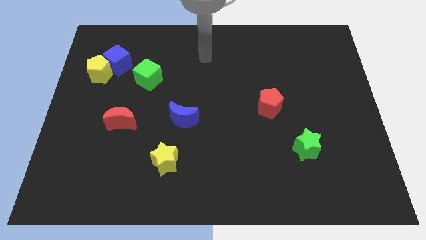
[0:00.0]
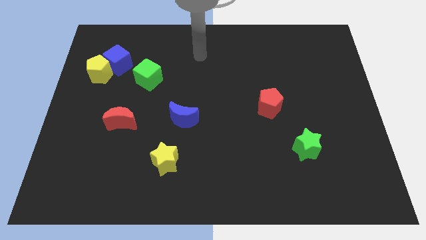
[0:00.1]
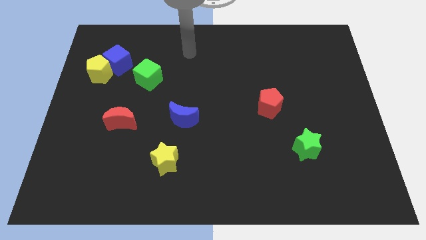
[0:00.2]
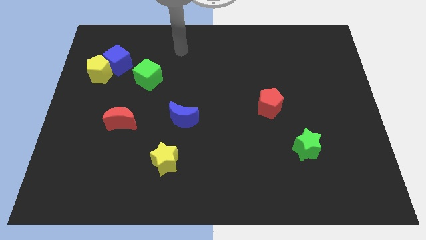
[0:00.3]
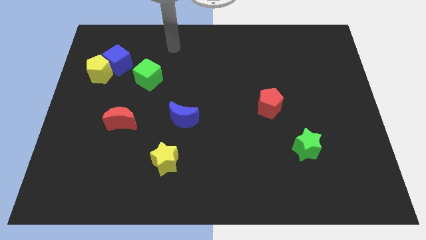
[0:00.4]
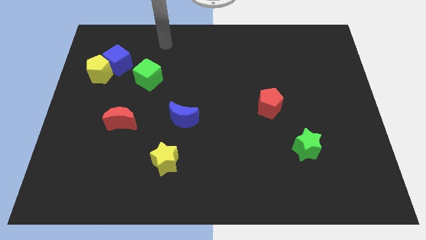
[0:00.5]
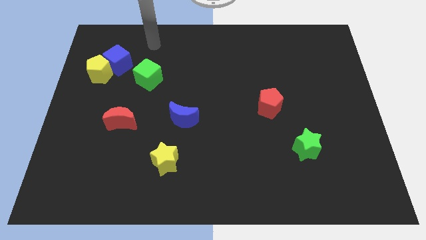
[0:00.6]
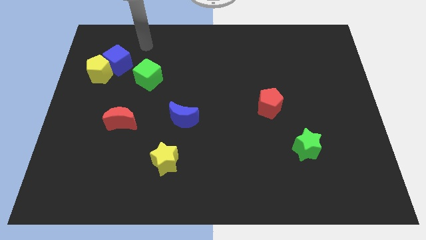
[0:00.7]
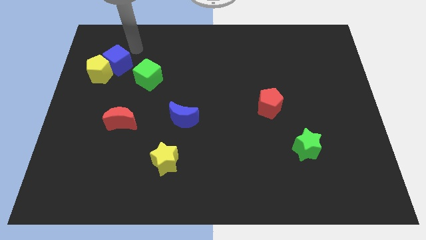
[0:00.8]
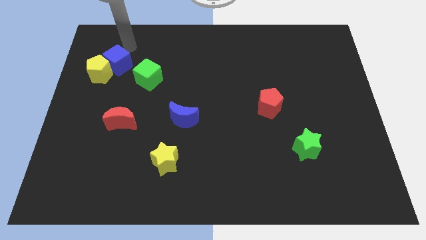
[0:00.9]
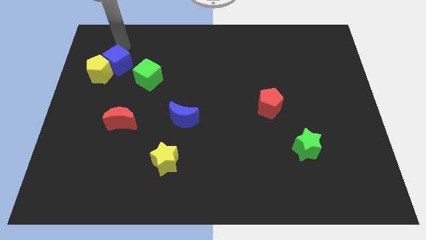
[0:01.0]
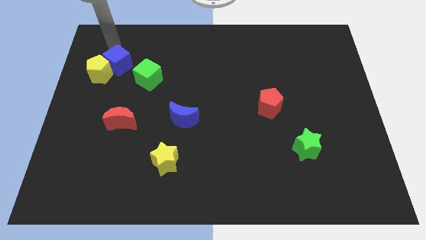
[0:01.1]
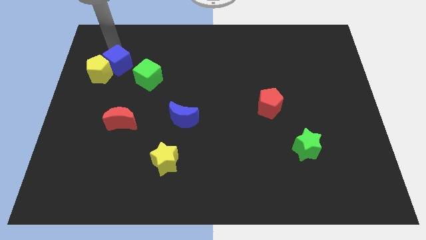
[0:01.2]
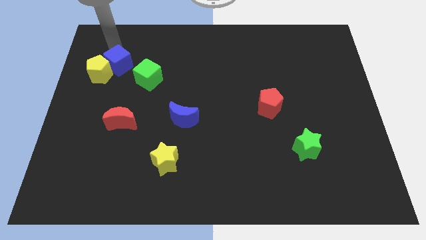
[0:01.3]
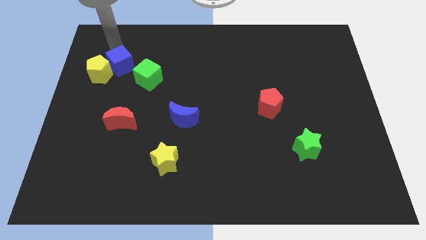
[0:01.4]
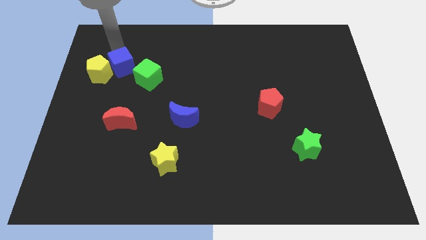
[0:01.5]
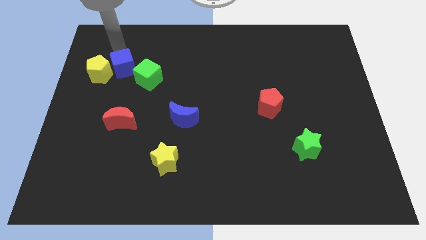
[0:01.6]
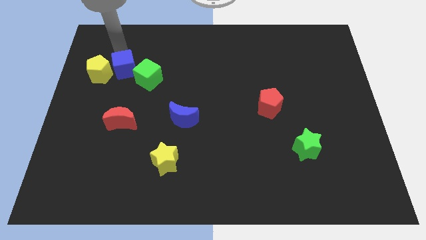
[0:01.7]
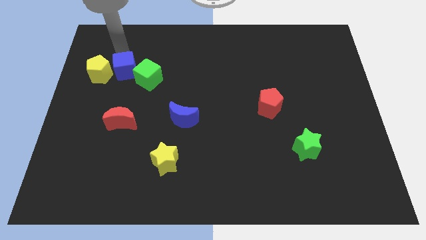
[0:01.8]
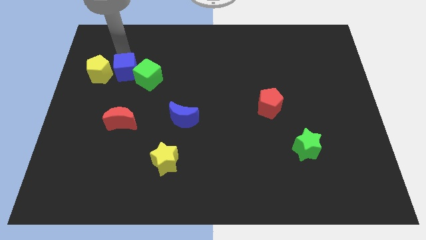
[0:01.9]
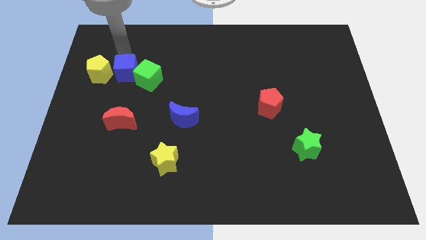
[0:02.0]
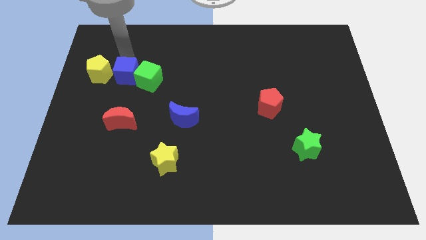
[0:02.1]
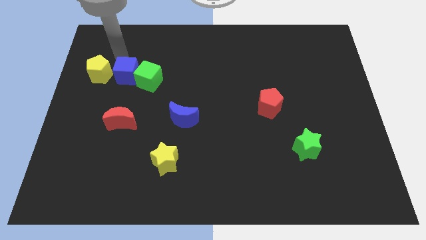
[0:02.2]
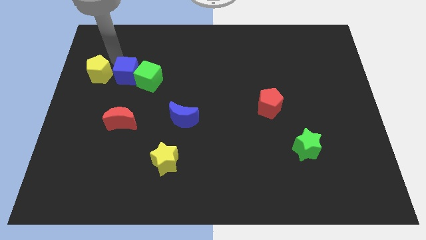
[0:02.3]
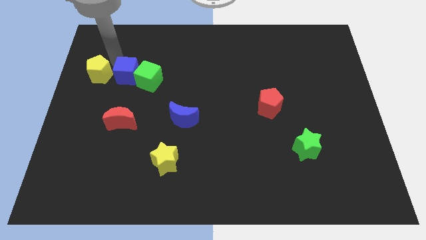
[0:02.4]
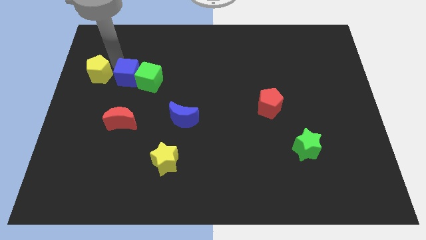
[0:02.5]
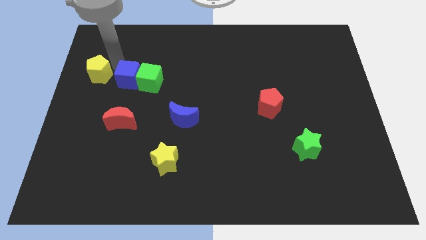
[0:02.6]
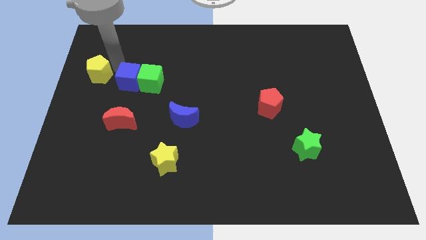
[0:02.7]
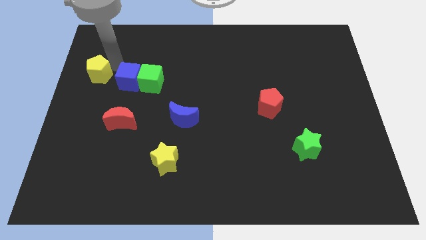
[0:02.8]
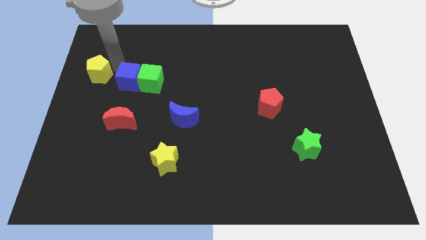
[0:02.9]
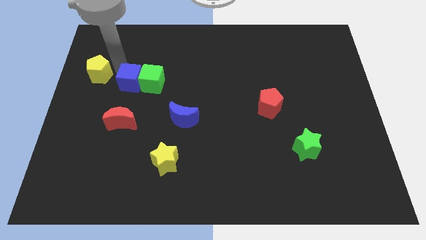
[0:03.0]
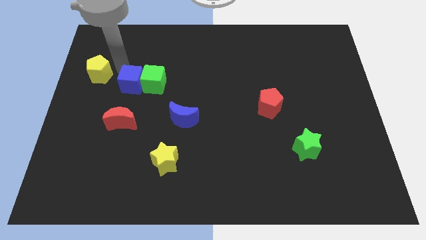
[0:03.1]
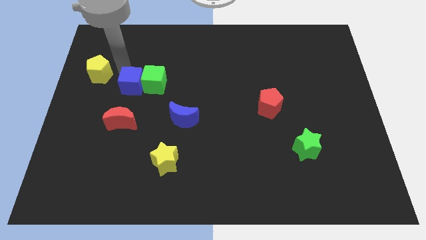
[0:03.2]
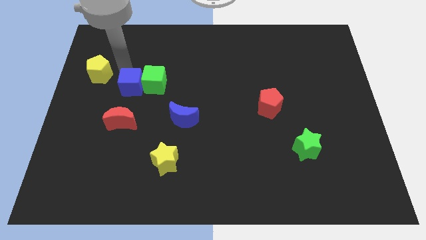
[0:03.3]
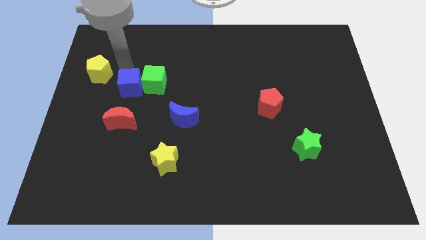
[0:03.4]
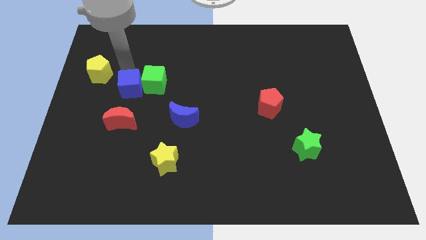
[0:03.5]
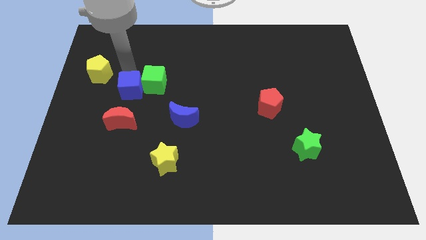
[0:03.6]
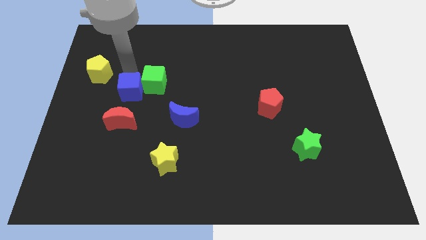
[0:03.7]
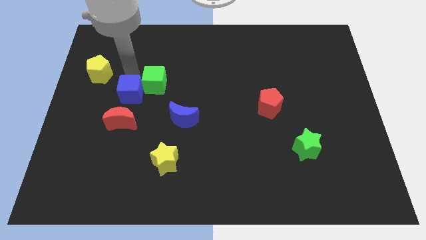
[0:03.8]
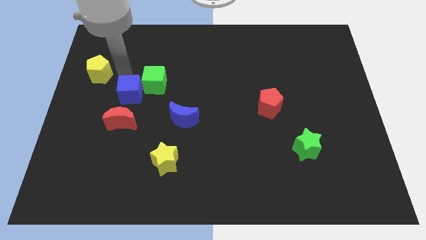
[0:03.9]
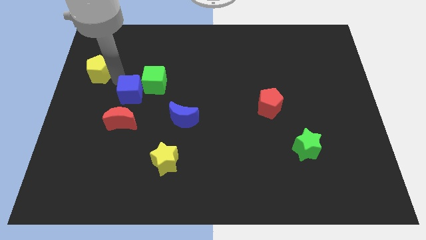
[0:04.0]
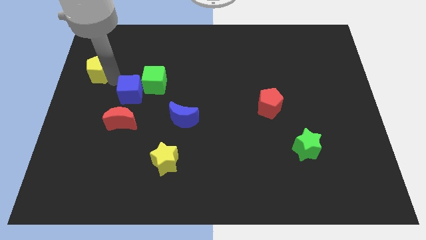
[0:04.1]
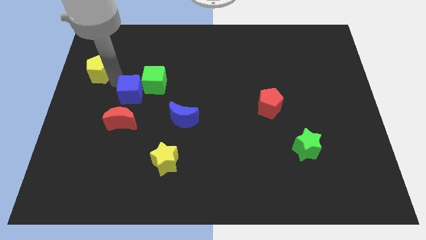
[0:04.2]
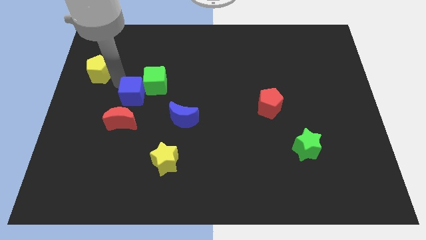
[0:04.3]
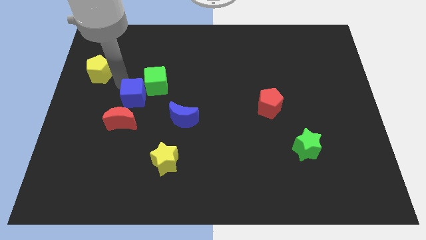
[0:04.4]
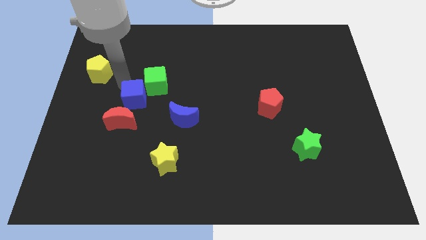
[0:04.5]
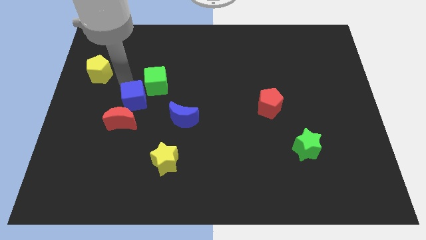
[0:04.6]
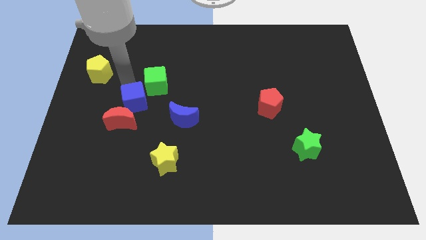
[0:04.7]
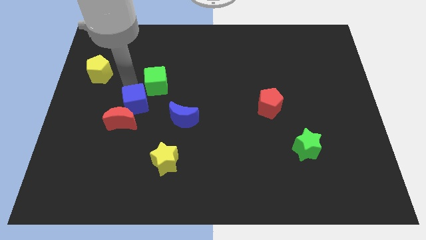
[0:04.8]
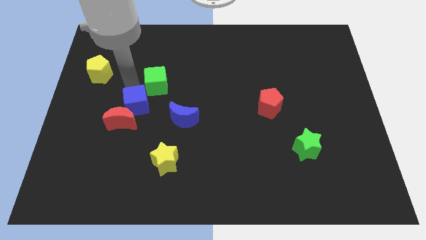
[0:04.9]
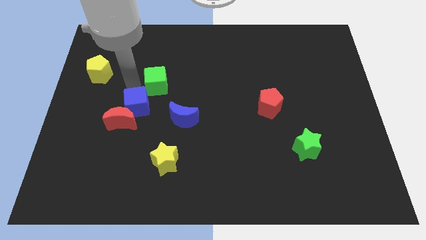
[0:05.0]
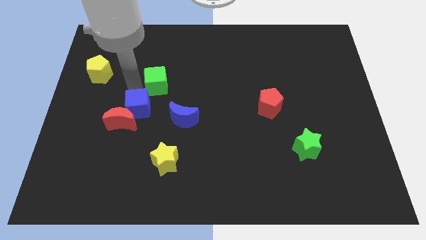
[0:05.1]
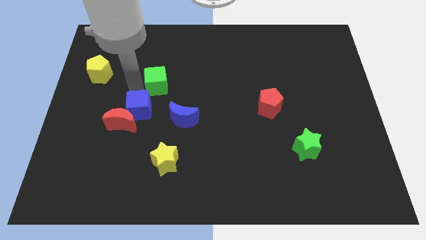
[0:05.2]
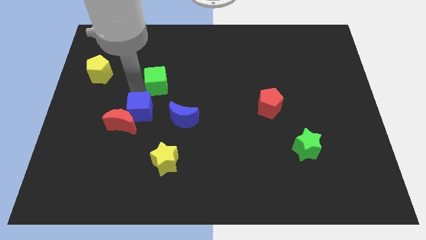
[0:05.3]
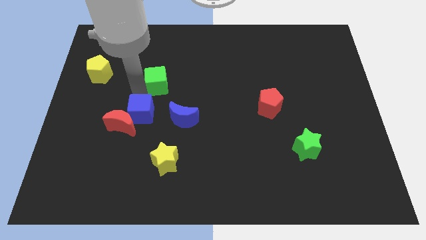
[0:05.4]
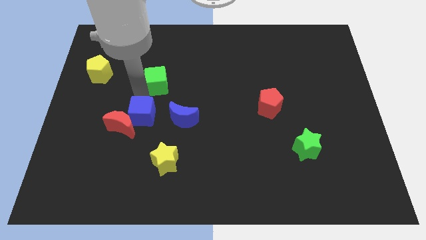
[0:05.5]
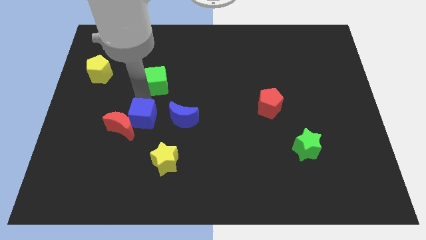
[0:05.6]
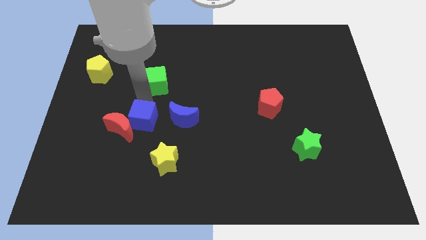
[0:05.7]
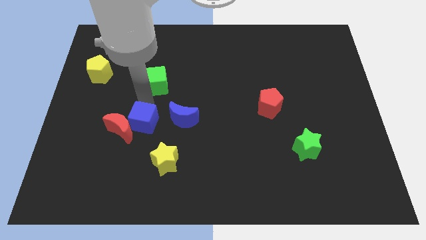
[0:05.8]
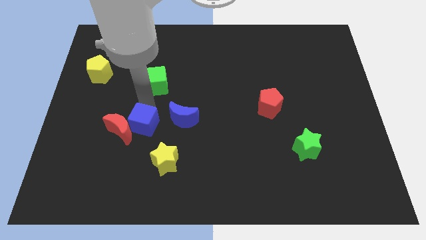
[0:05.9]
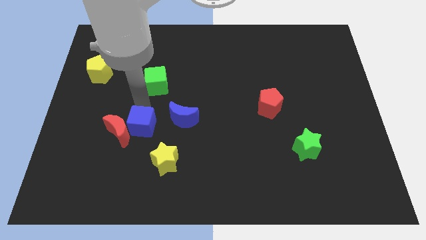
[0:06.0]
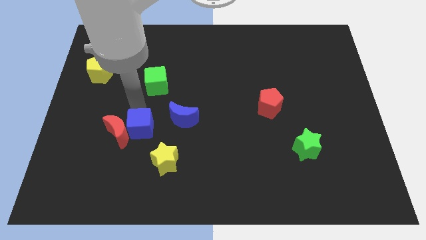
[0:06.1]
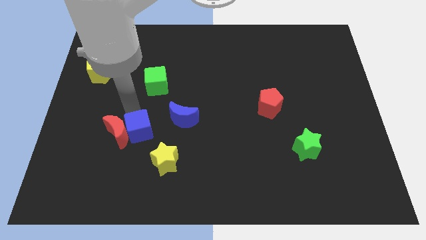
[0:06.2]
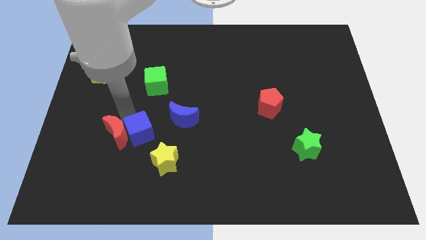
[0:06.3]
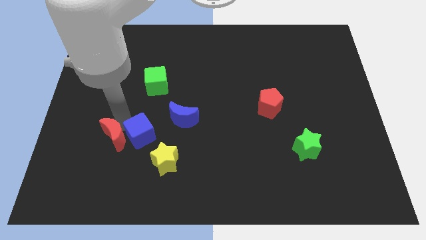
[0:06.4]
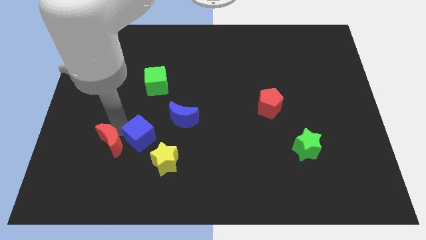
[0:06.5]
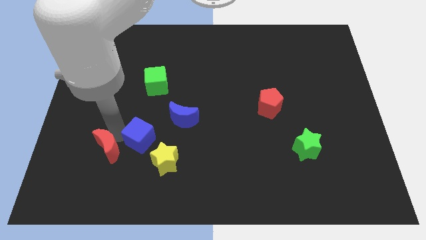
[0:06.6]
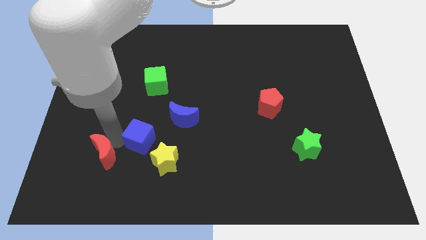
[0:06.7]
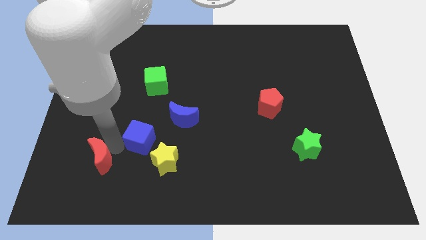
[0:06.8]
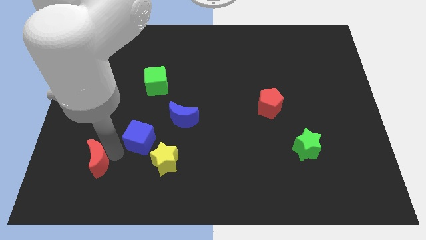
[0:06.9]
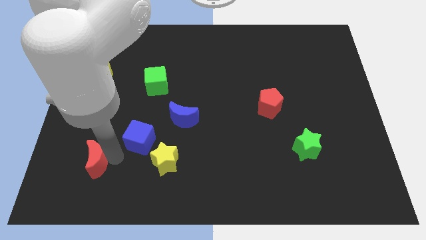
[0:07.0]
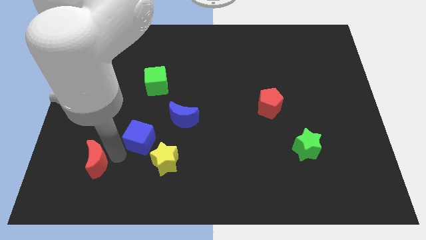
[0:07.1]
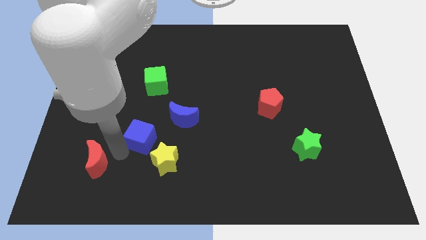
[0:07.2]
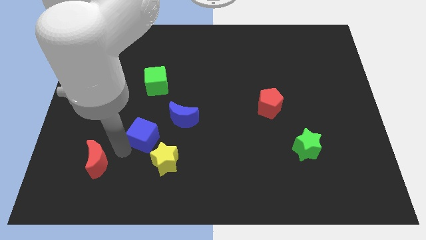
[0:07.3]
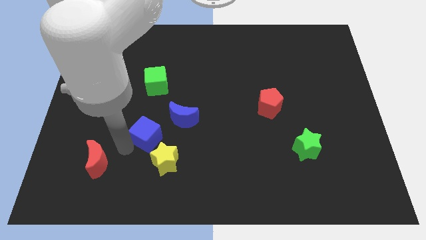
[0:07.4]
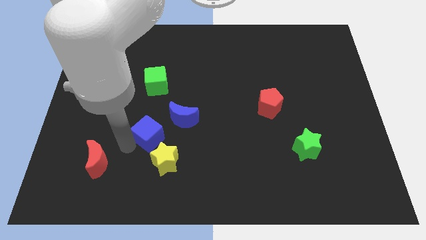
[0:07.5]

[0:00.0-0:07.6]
slide the blue cube diagonally downwards and right

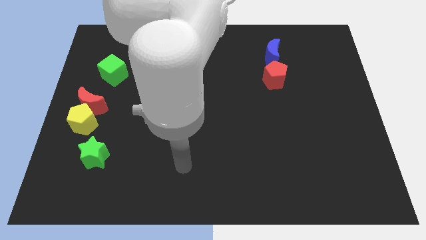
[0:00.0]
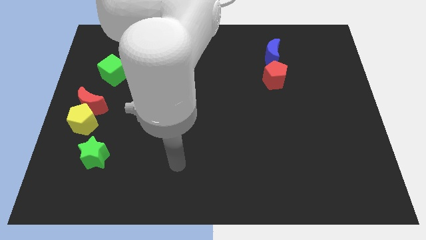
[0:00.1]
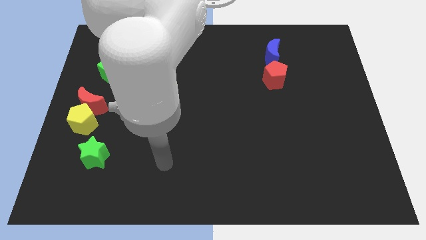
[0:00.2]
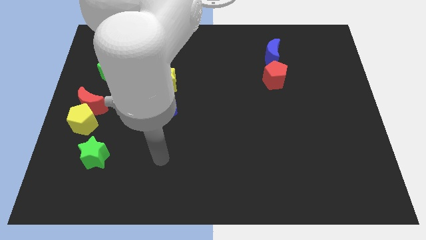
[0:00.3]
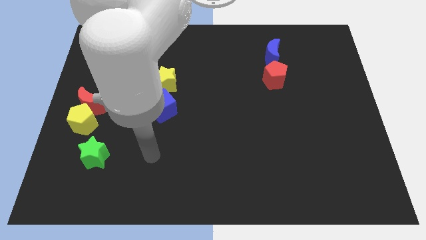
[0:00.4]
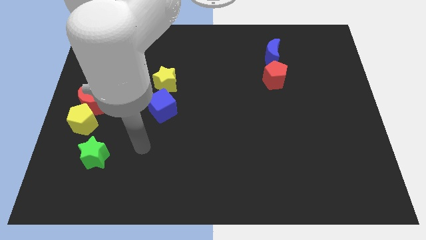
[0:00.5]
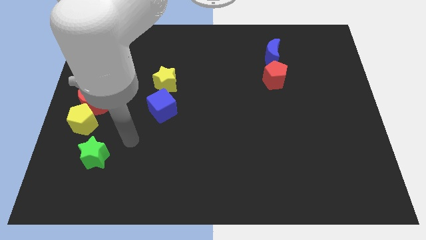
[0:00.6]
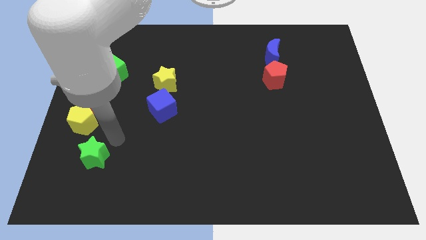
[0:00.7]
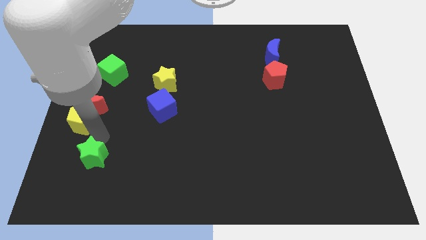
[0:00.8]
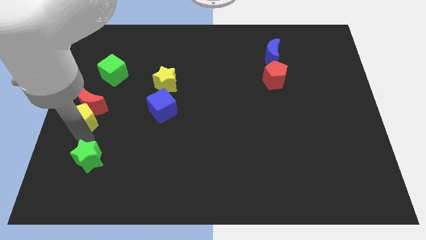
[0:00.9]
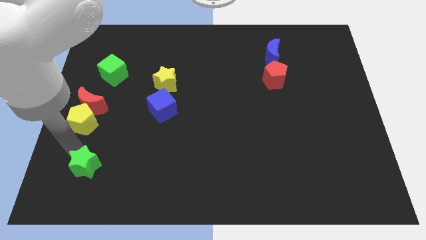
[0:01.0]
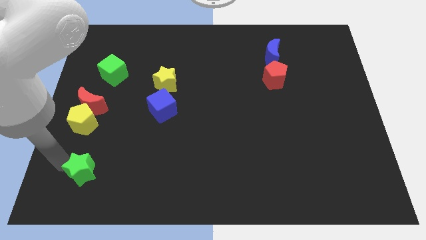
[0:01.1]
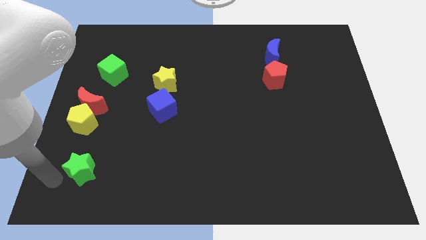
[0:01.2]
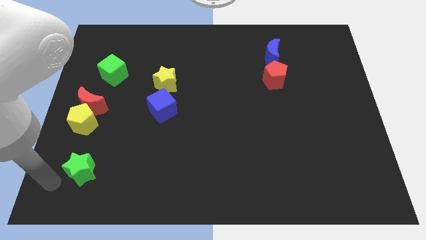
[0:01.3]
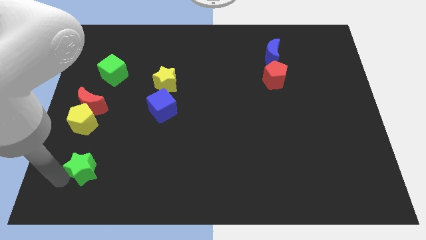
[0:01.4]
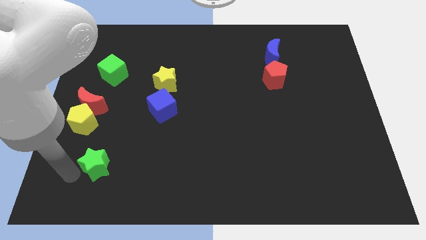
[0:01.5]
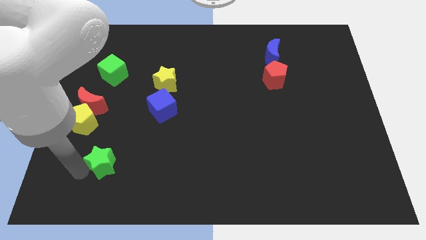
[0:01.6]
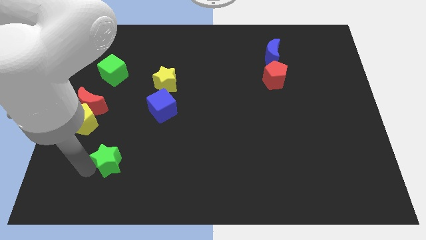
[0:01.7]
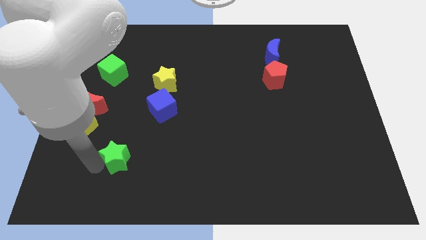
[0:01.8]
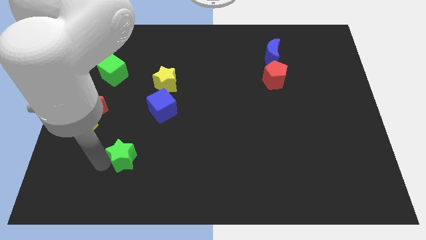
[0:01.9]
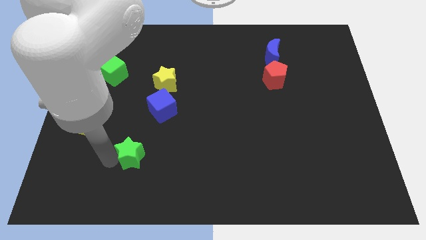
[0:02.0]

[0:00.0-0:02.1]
slide the green star right a little
